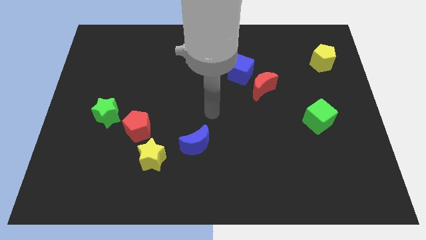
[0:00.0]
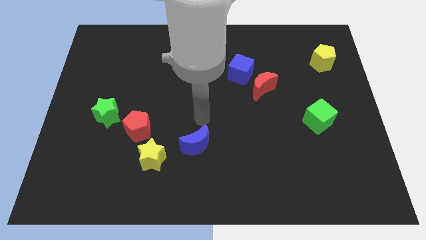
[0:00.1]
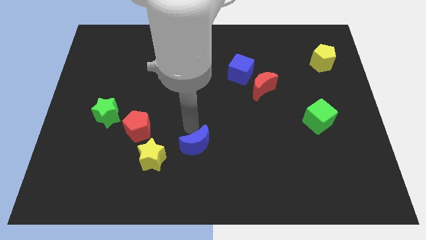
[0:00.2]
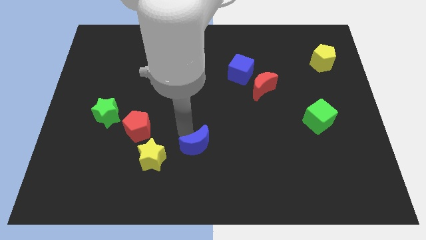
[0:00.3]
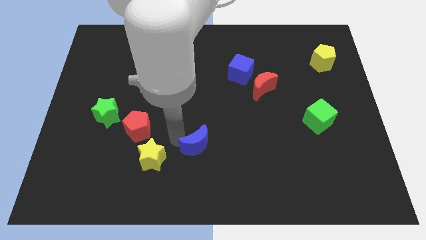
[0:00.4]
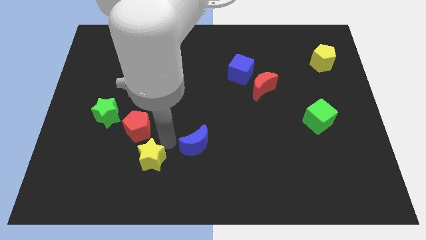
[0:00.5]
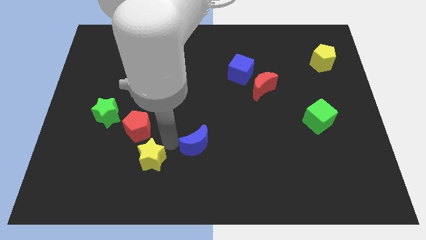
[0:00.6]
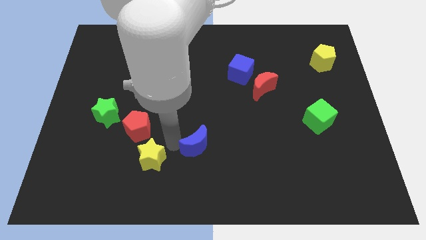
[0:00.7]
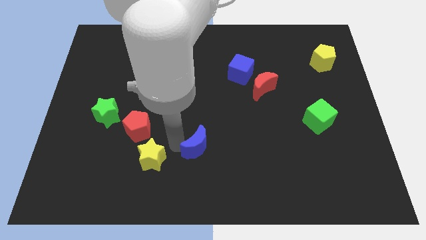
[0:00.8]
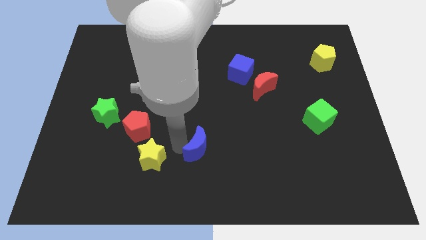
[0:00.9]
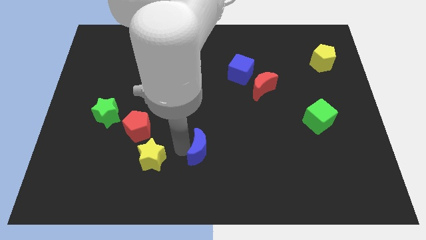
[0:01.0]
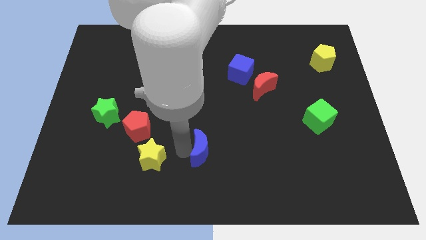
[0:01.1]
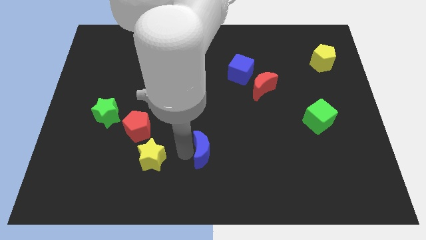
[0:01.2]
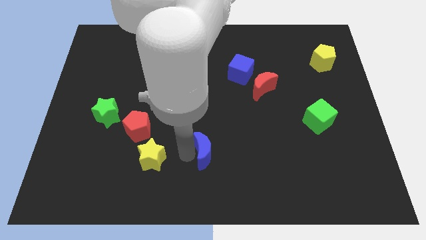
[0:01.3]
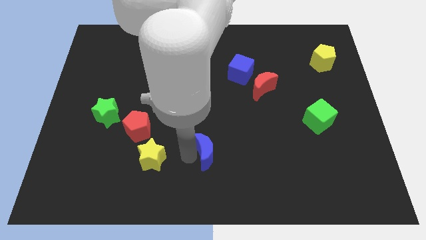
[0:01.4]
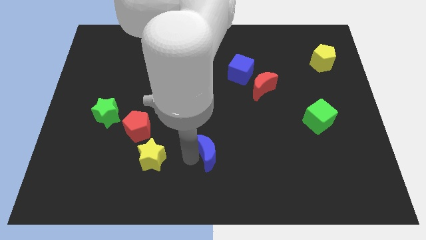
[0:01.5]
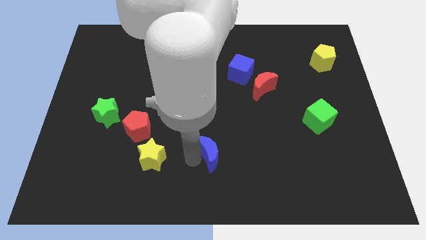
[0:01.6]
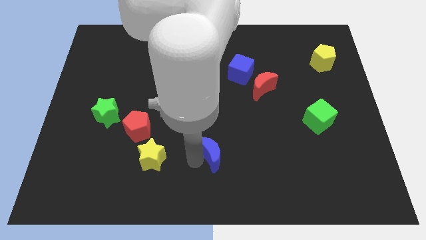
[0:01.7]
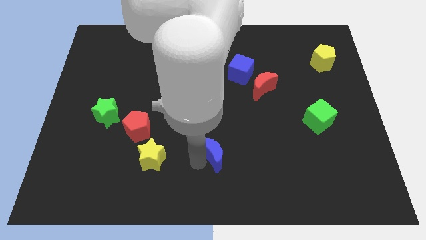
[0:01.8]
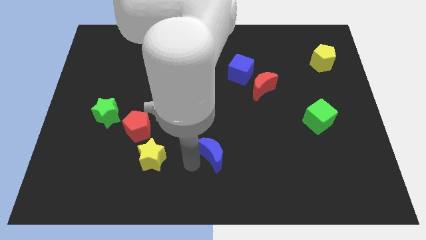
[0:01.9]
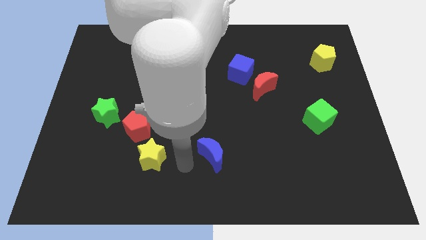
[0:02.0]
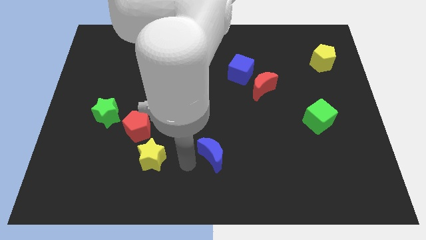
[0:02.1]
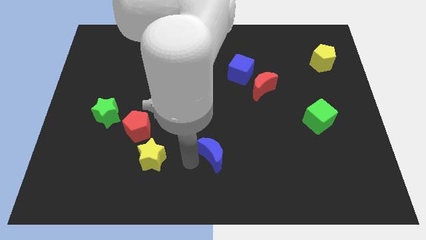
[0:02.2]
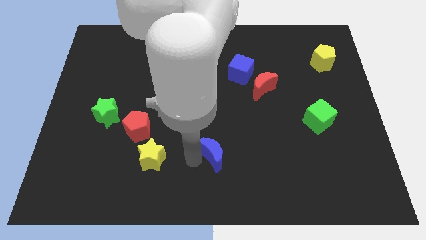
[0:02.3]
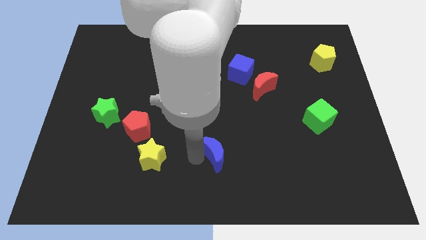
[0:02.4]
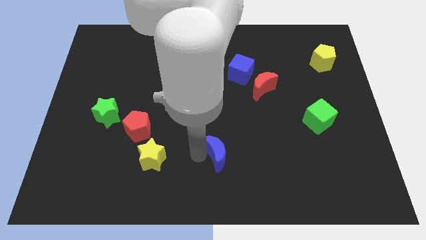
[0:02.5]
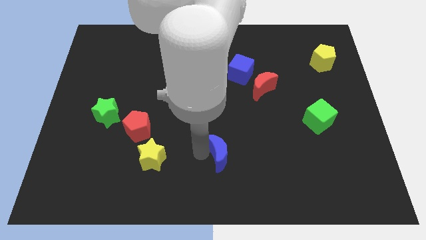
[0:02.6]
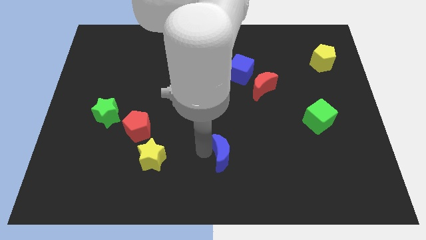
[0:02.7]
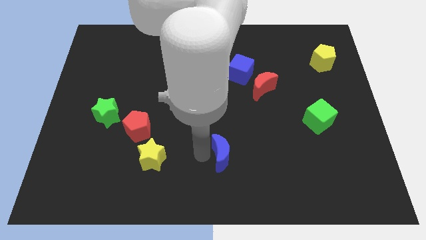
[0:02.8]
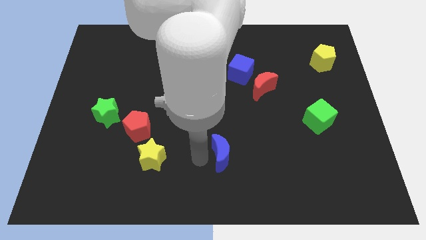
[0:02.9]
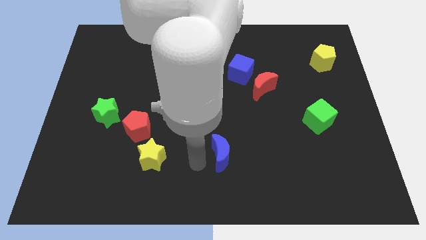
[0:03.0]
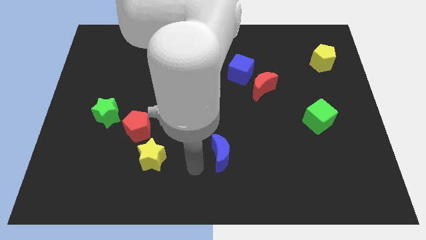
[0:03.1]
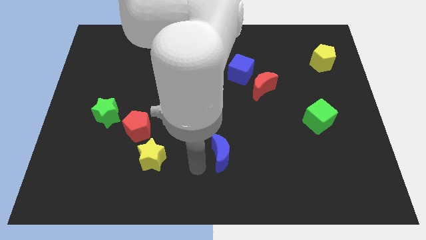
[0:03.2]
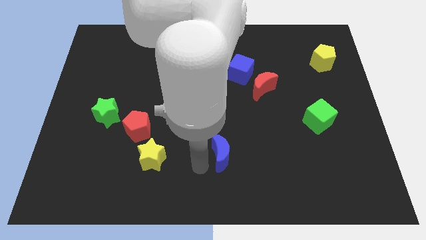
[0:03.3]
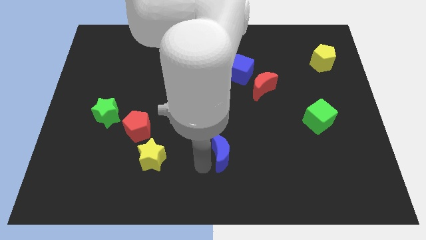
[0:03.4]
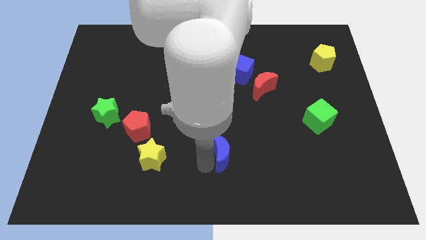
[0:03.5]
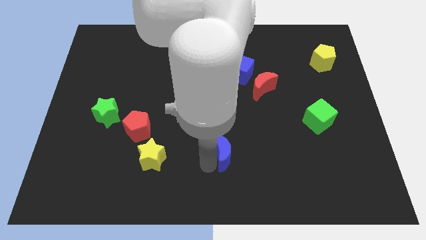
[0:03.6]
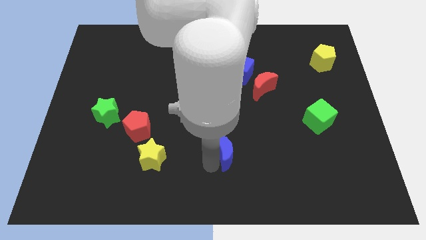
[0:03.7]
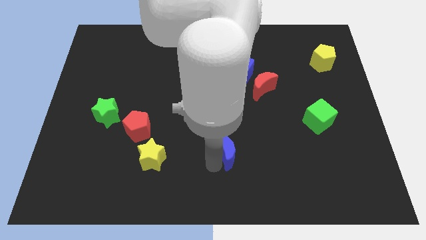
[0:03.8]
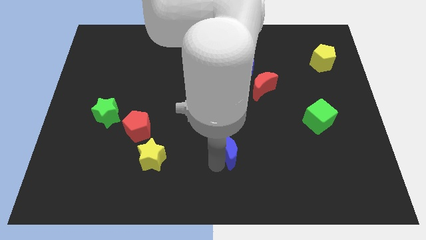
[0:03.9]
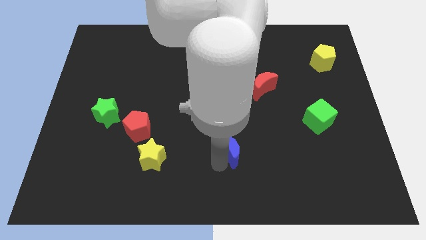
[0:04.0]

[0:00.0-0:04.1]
slide the blue moon slightly to the right

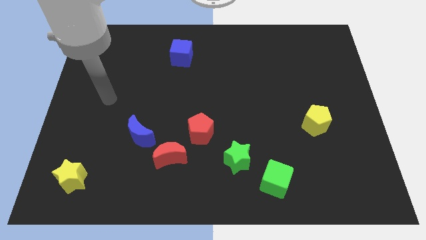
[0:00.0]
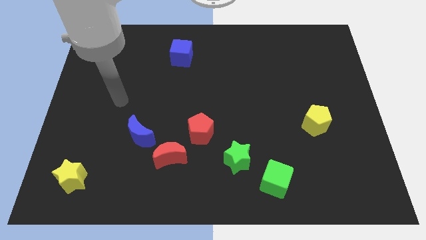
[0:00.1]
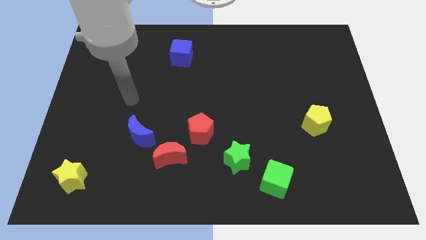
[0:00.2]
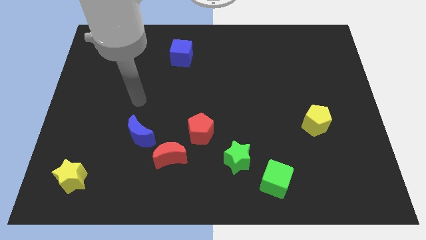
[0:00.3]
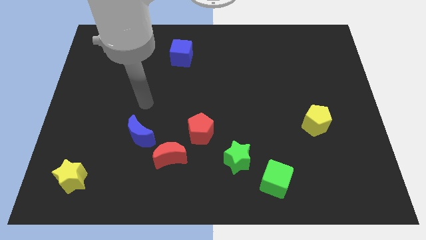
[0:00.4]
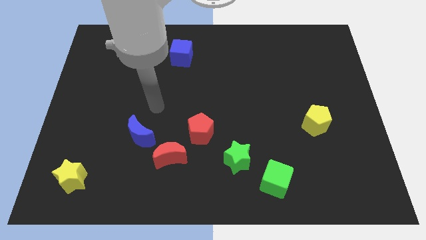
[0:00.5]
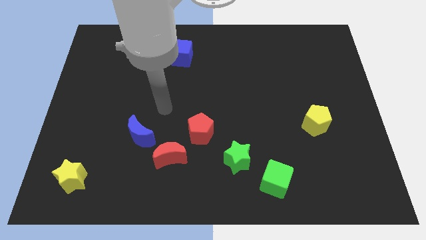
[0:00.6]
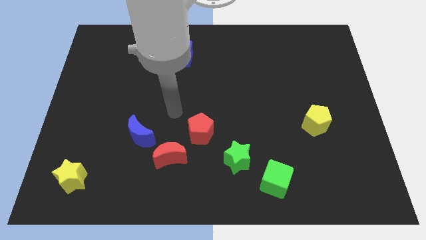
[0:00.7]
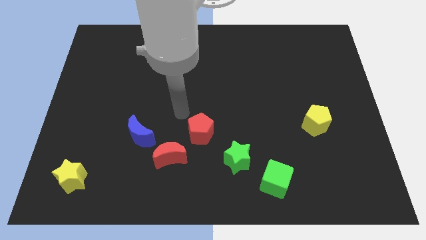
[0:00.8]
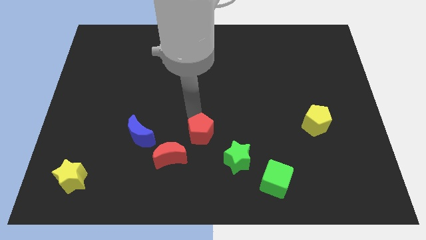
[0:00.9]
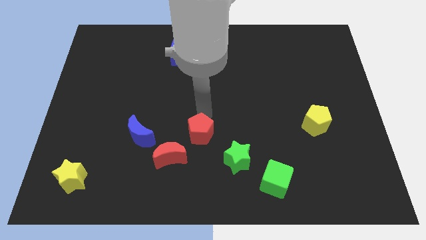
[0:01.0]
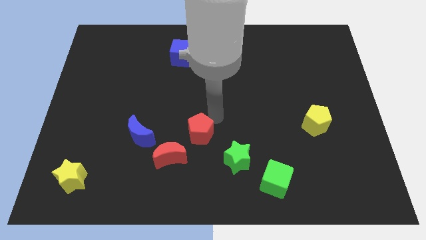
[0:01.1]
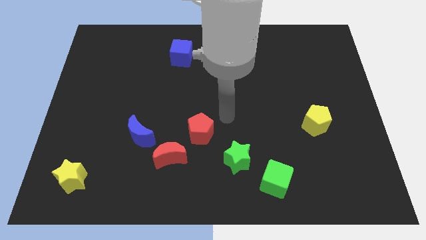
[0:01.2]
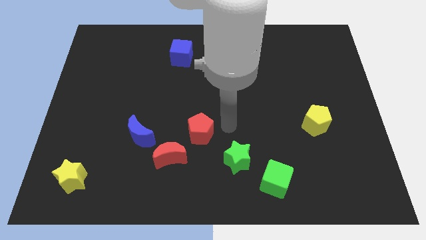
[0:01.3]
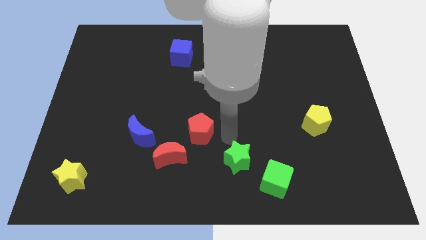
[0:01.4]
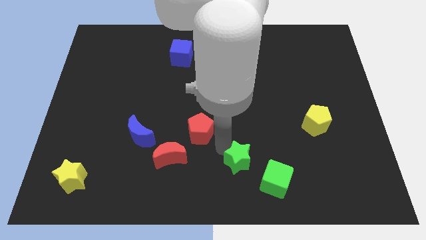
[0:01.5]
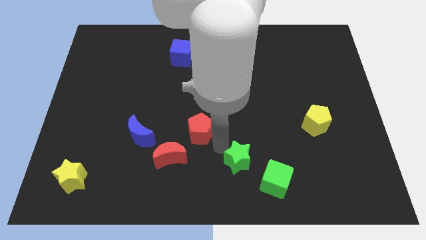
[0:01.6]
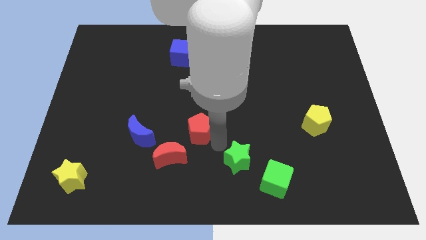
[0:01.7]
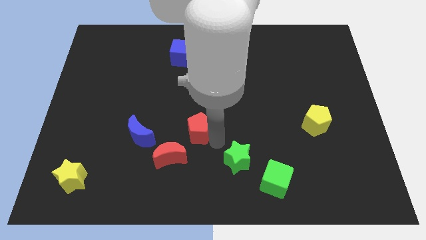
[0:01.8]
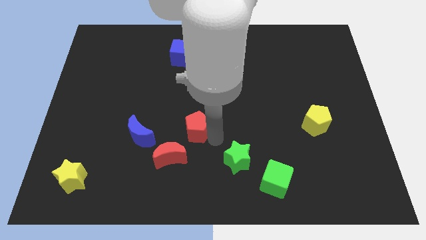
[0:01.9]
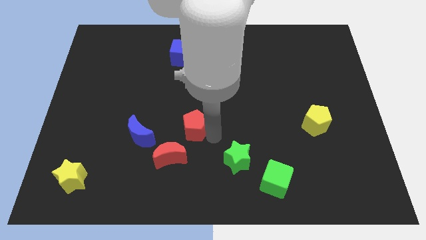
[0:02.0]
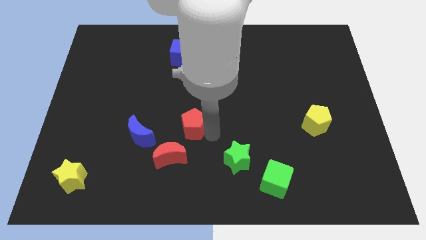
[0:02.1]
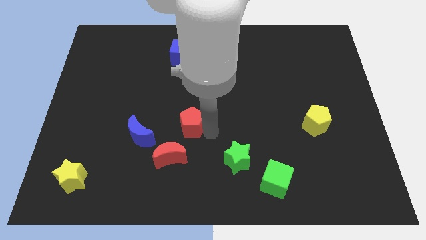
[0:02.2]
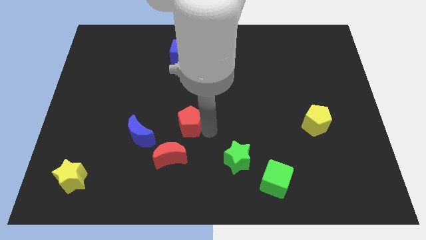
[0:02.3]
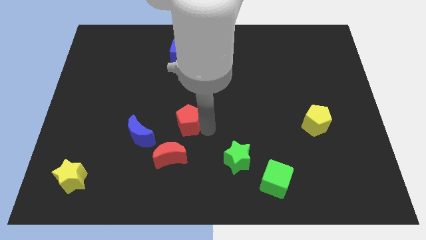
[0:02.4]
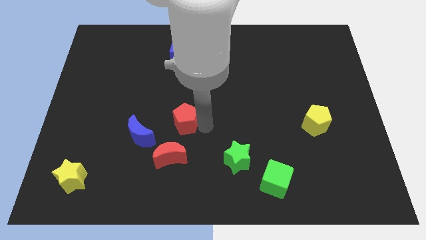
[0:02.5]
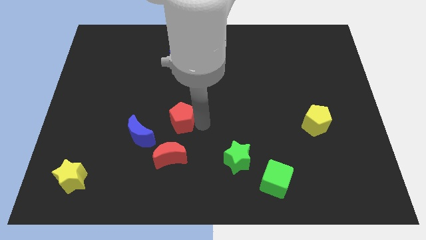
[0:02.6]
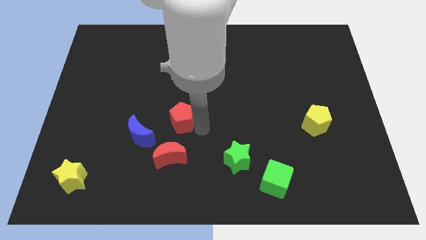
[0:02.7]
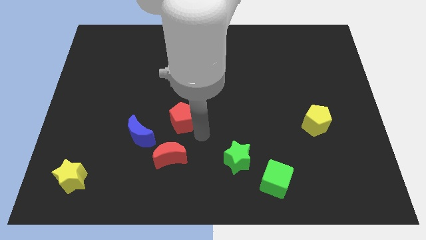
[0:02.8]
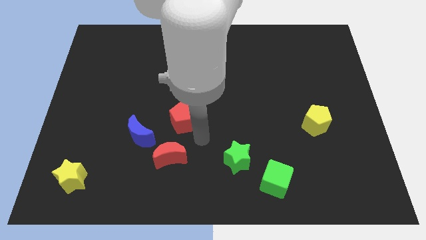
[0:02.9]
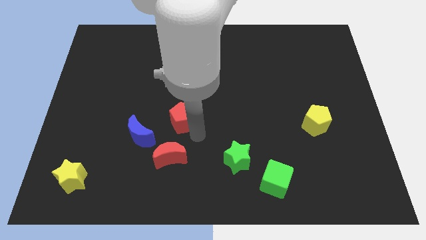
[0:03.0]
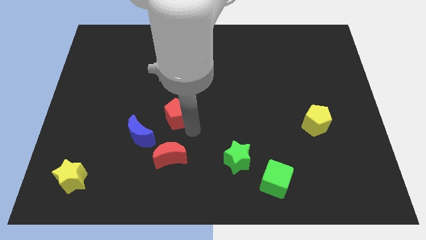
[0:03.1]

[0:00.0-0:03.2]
push the red pentagon upwards and left a little bit

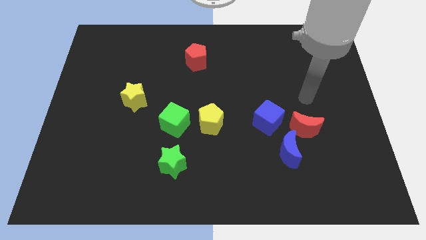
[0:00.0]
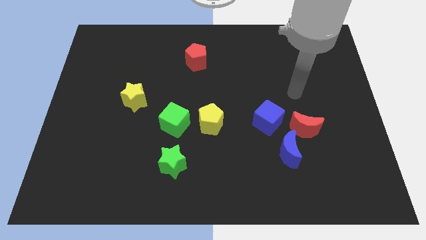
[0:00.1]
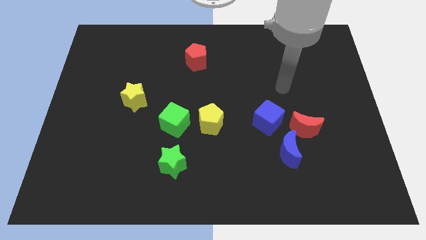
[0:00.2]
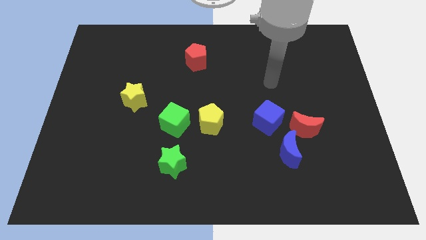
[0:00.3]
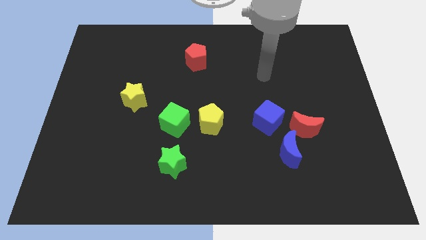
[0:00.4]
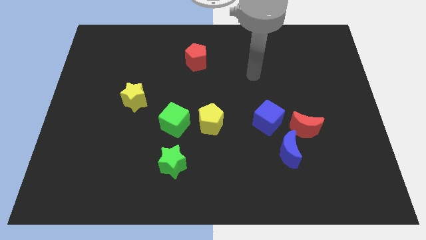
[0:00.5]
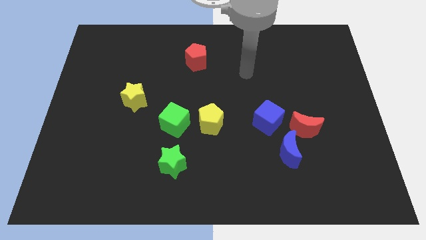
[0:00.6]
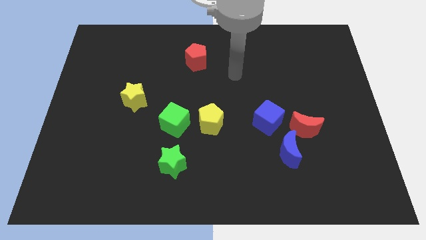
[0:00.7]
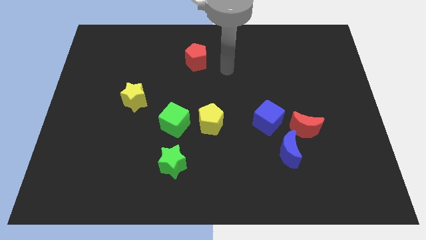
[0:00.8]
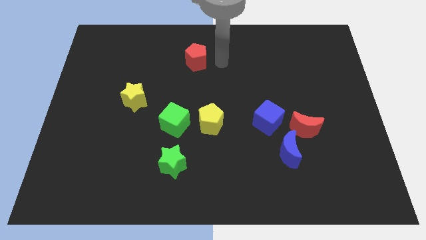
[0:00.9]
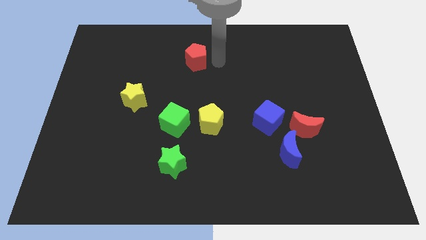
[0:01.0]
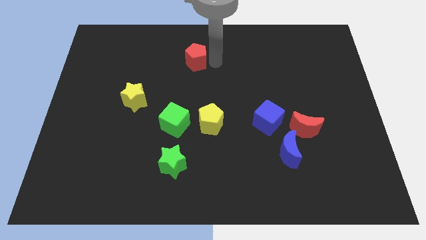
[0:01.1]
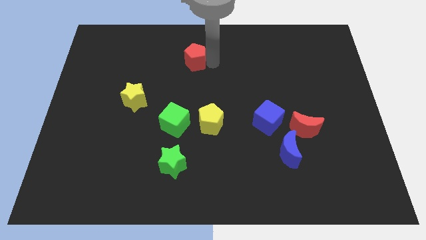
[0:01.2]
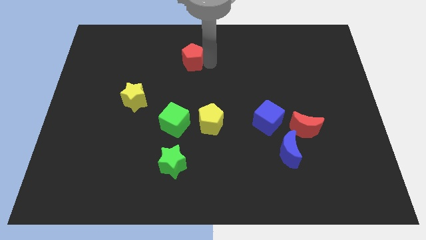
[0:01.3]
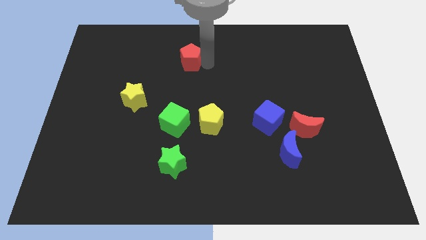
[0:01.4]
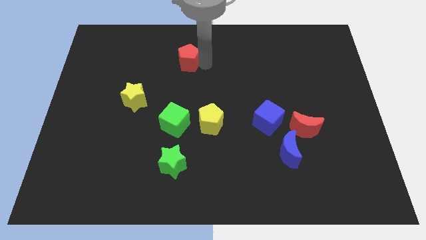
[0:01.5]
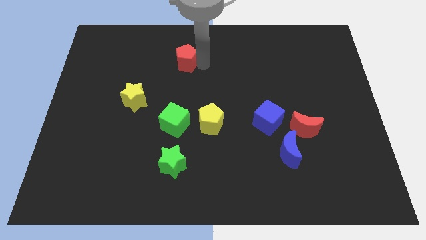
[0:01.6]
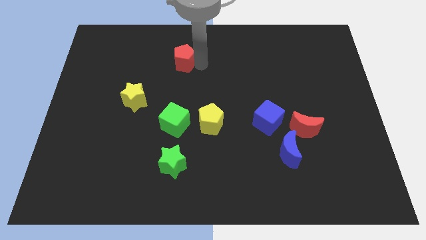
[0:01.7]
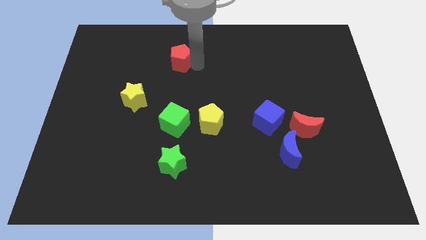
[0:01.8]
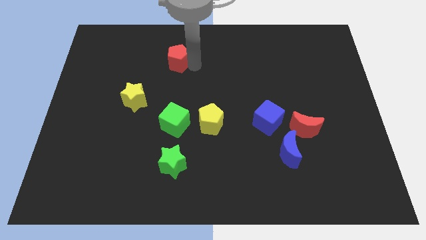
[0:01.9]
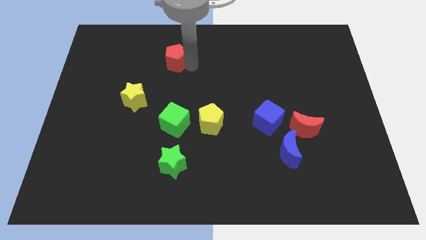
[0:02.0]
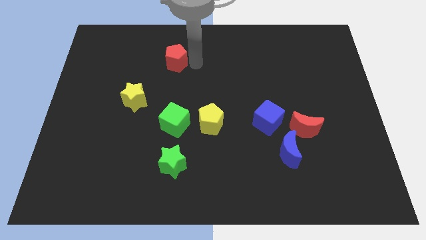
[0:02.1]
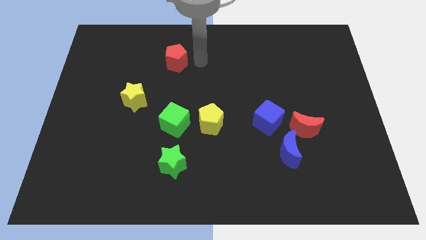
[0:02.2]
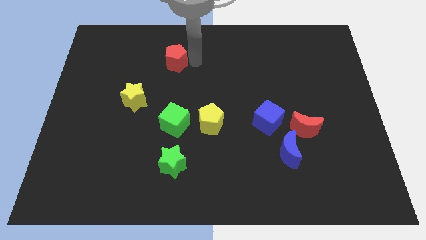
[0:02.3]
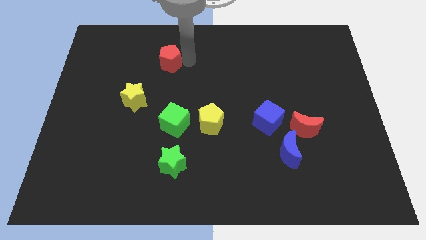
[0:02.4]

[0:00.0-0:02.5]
push the red pentagon slightly to the left
